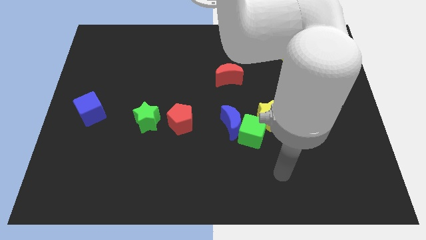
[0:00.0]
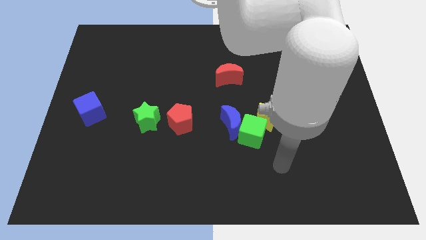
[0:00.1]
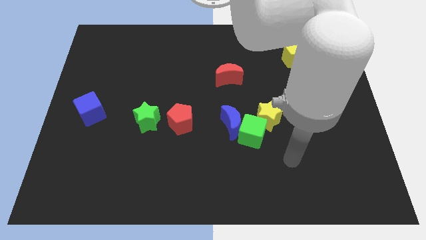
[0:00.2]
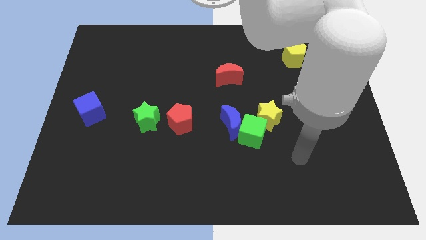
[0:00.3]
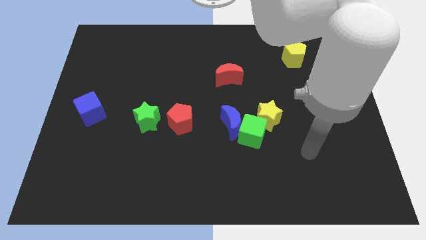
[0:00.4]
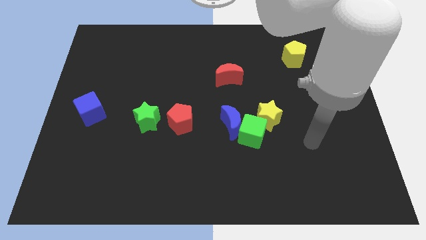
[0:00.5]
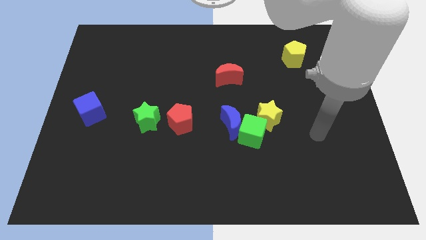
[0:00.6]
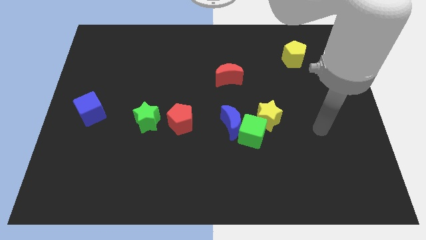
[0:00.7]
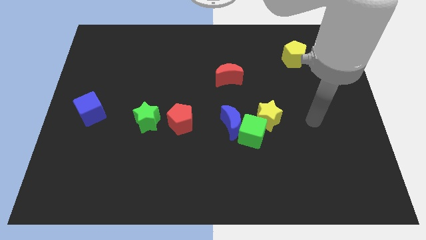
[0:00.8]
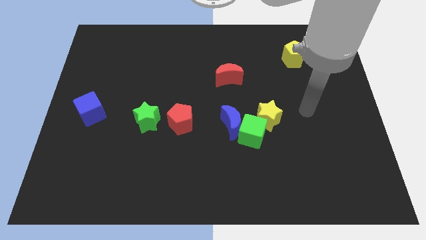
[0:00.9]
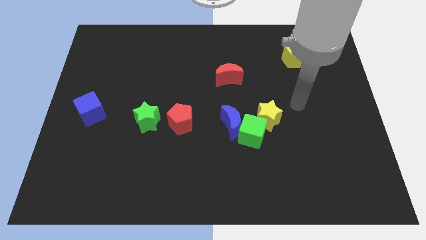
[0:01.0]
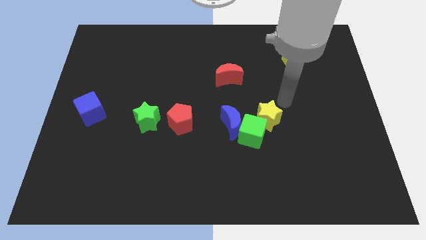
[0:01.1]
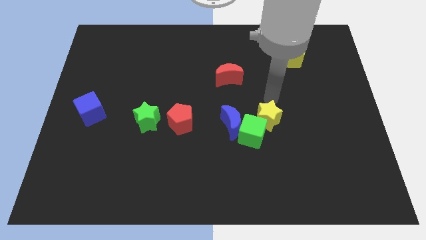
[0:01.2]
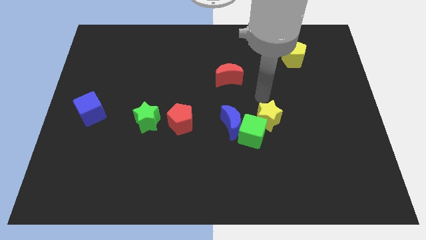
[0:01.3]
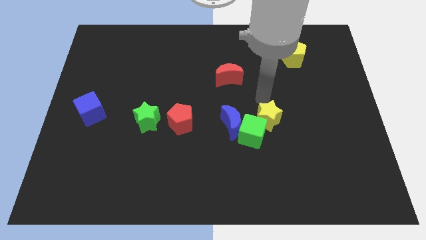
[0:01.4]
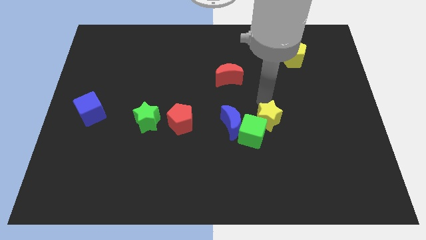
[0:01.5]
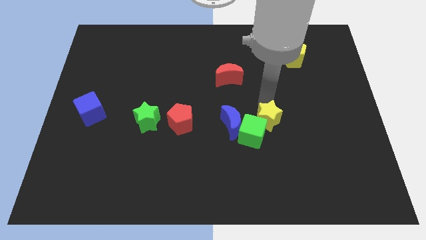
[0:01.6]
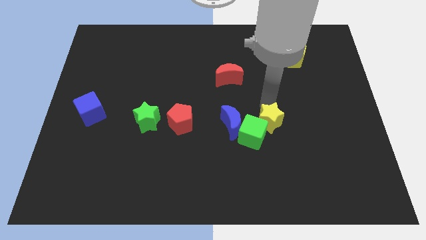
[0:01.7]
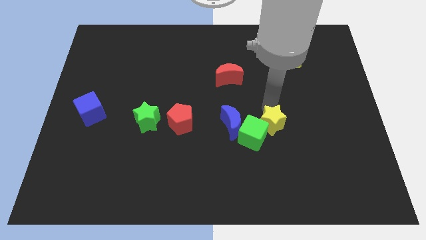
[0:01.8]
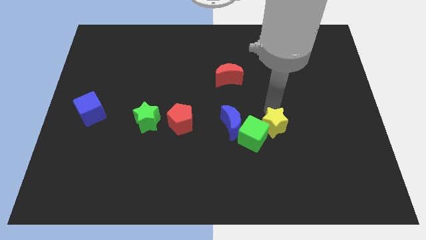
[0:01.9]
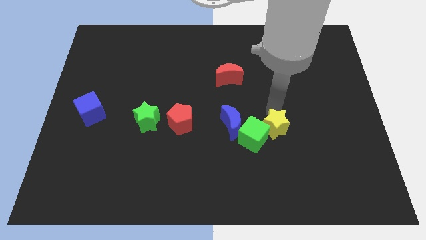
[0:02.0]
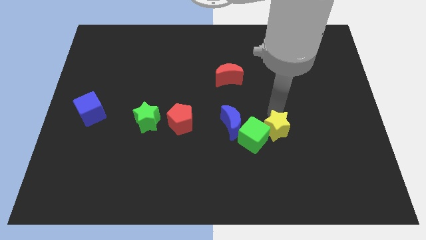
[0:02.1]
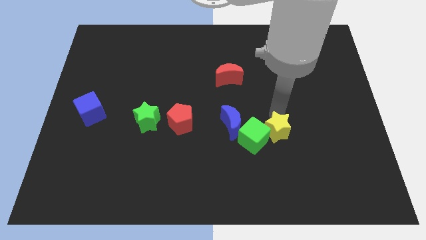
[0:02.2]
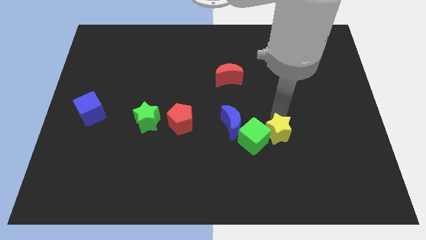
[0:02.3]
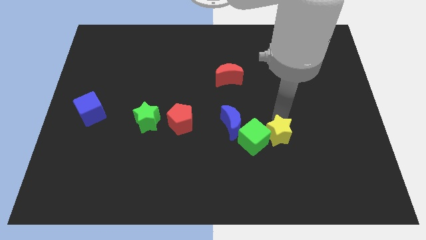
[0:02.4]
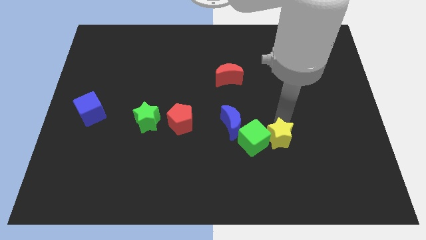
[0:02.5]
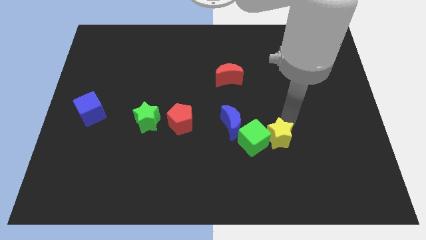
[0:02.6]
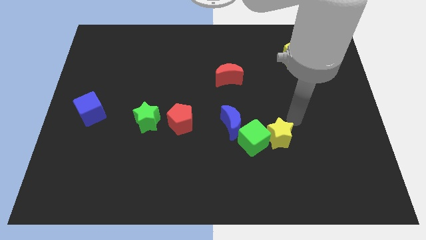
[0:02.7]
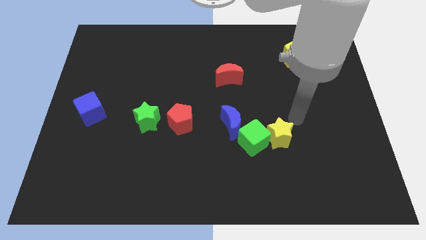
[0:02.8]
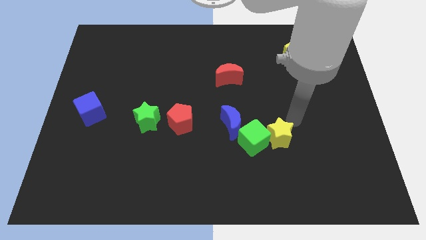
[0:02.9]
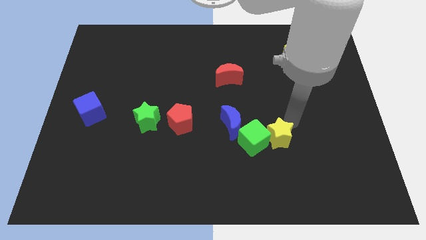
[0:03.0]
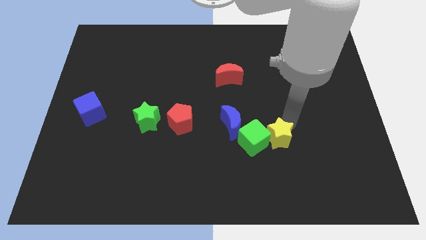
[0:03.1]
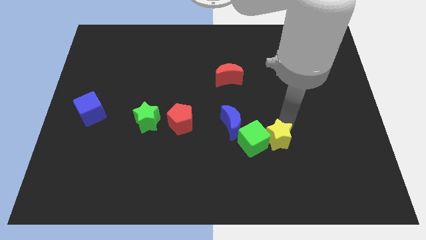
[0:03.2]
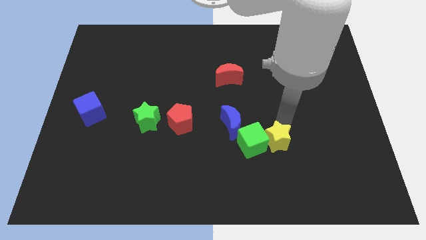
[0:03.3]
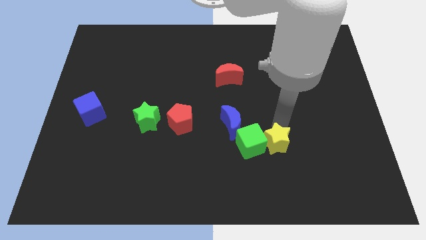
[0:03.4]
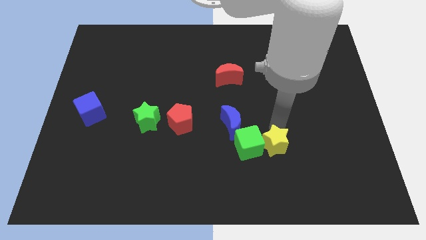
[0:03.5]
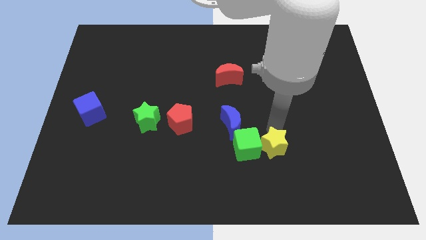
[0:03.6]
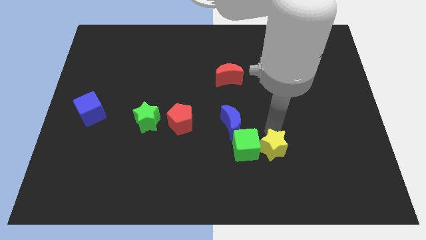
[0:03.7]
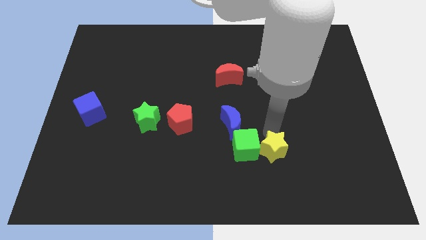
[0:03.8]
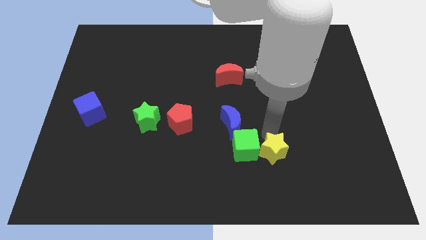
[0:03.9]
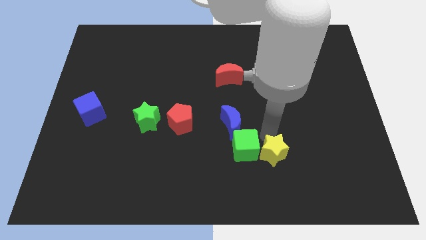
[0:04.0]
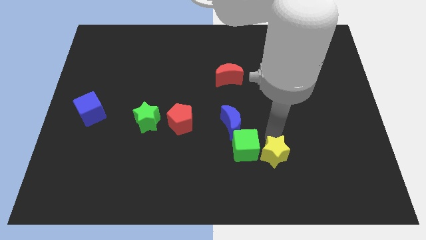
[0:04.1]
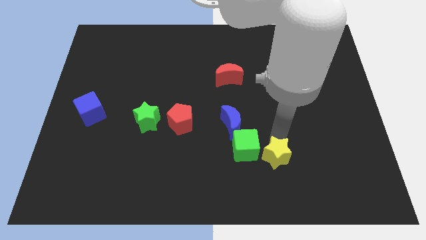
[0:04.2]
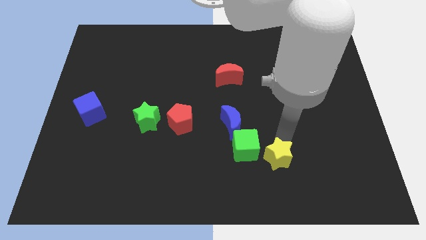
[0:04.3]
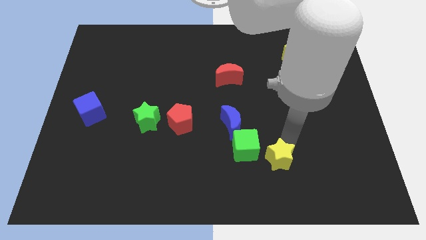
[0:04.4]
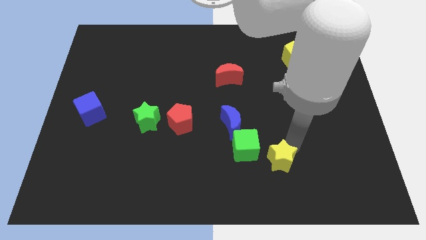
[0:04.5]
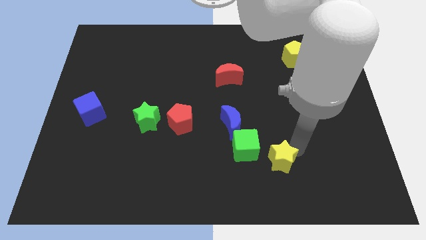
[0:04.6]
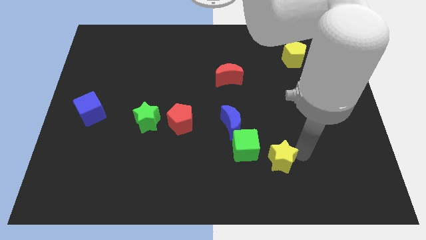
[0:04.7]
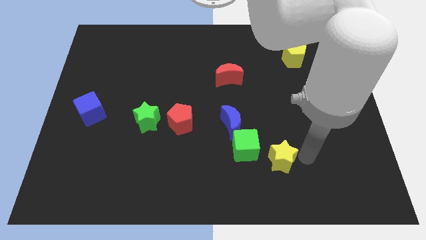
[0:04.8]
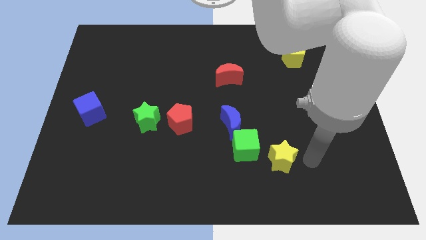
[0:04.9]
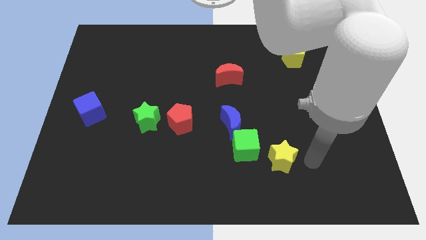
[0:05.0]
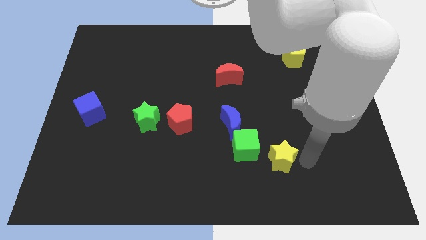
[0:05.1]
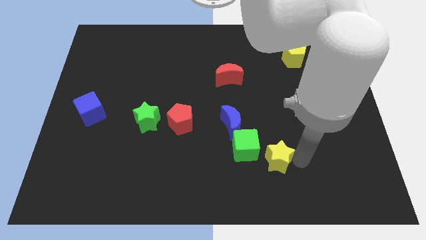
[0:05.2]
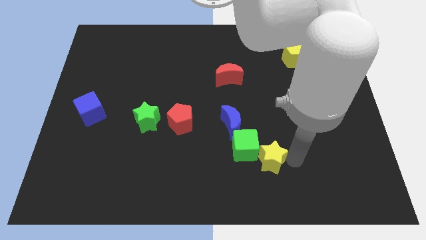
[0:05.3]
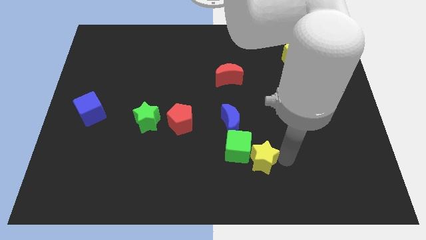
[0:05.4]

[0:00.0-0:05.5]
slightly push the yellow star down and then left

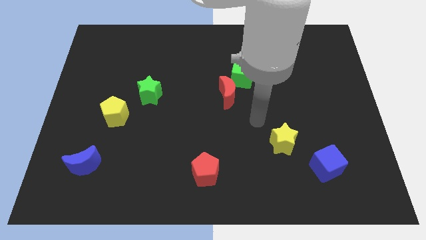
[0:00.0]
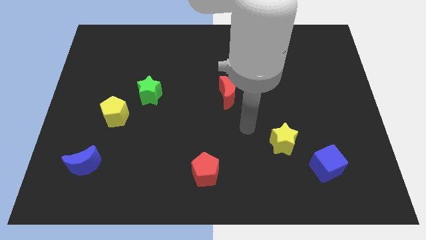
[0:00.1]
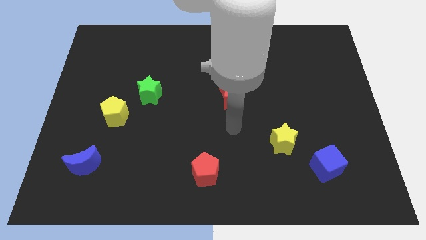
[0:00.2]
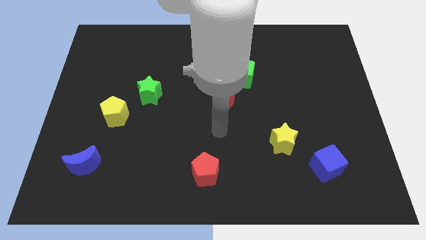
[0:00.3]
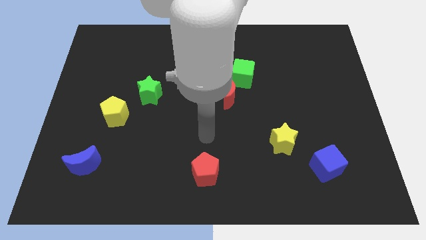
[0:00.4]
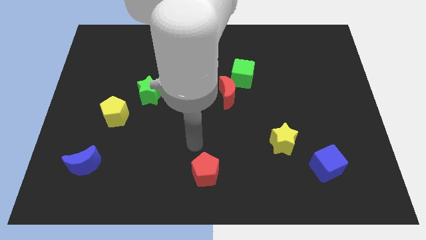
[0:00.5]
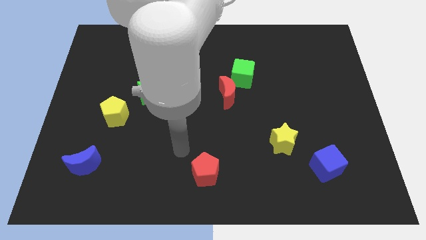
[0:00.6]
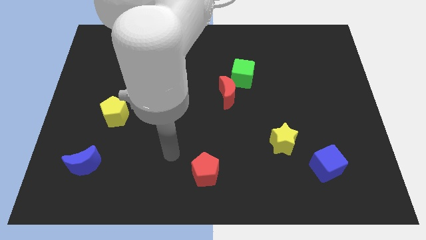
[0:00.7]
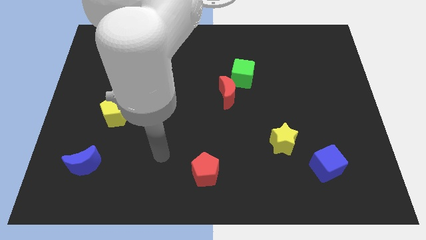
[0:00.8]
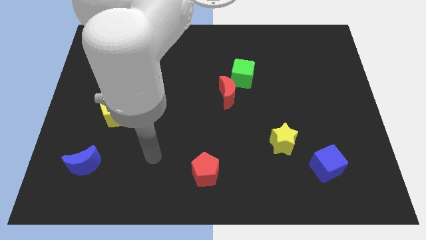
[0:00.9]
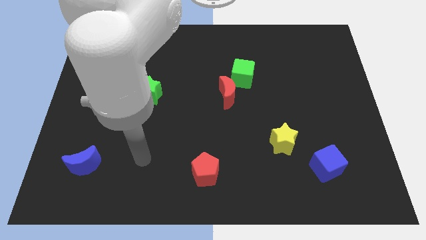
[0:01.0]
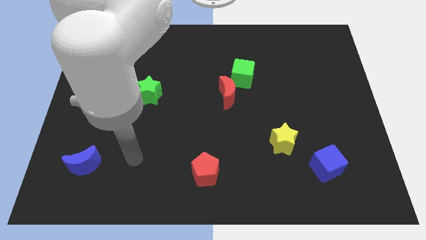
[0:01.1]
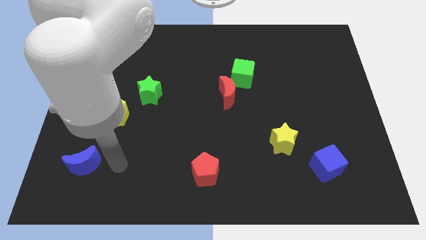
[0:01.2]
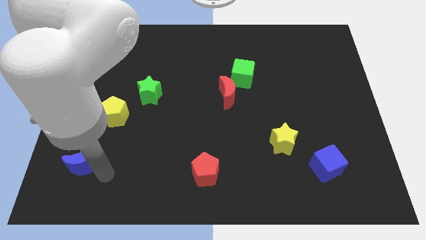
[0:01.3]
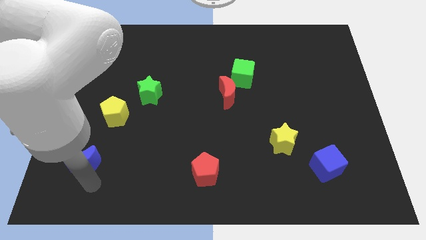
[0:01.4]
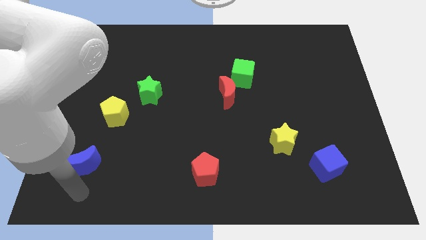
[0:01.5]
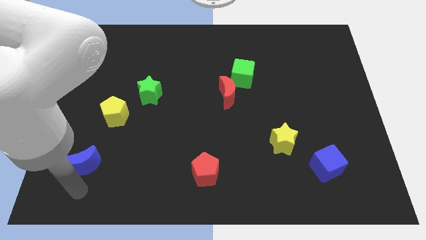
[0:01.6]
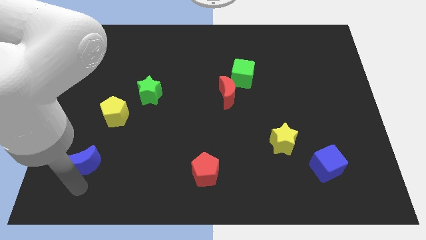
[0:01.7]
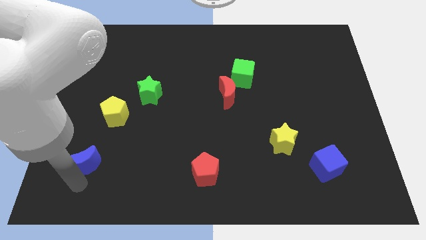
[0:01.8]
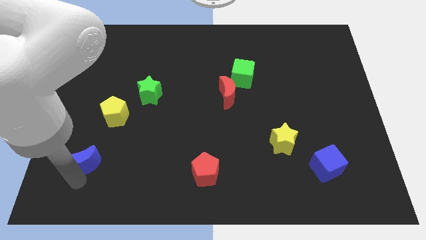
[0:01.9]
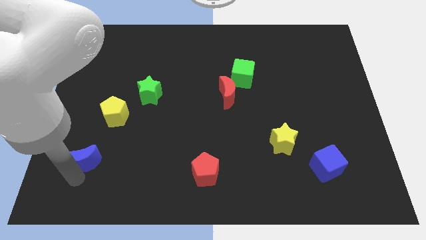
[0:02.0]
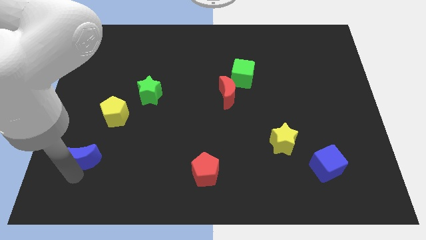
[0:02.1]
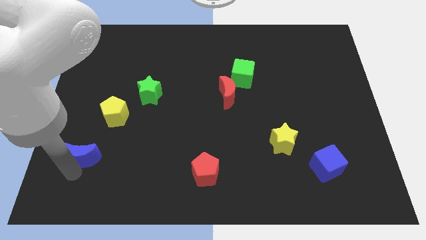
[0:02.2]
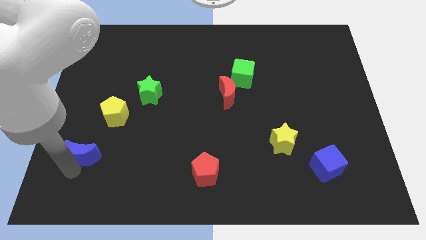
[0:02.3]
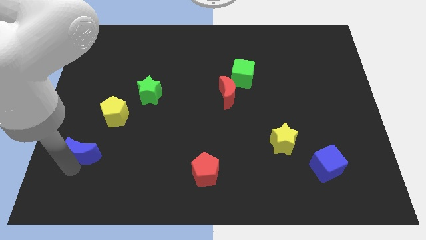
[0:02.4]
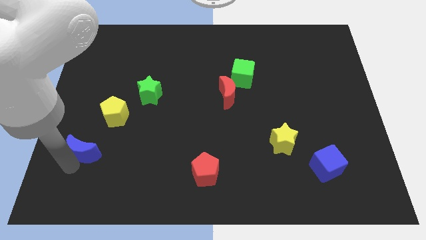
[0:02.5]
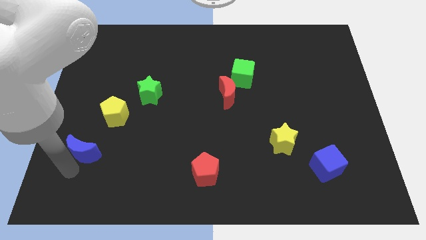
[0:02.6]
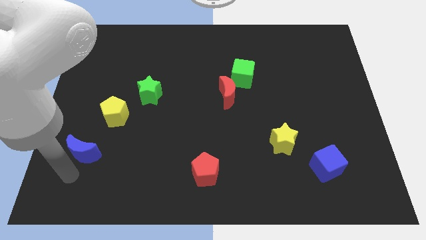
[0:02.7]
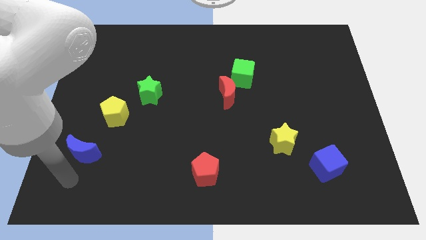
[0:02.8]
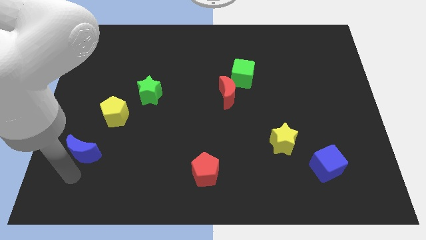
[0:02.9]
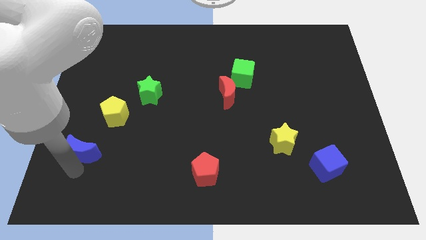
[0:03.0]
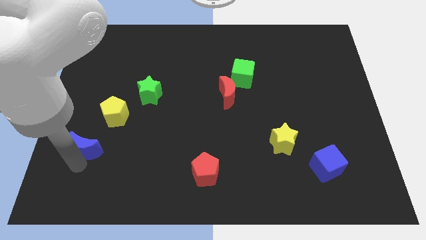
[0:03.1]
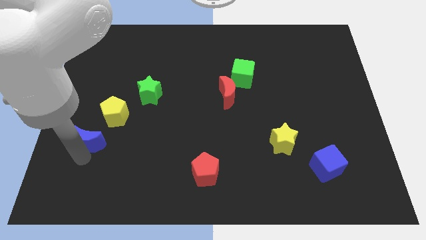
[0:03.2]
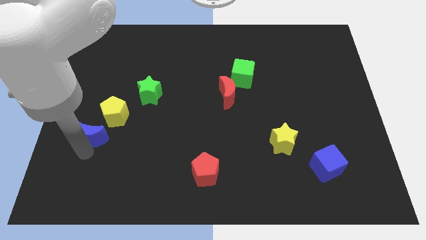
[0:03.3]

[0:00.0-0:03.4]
slightly slide the blue moon up
